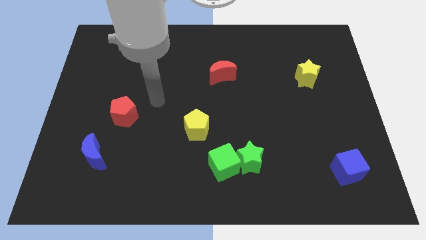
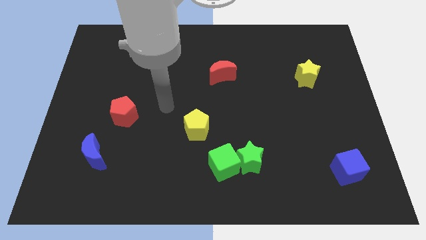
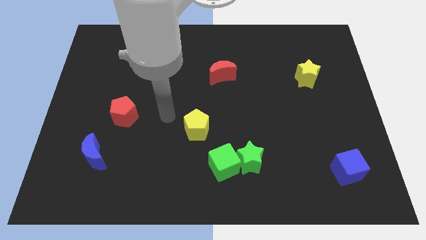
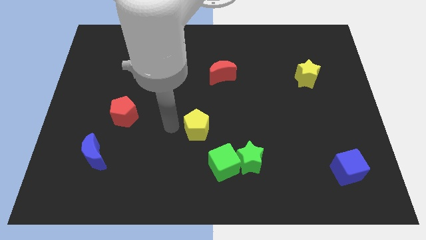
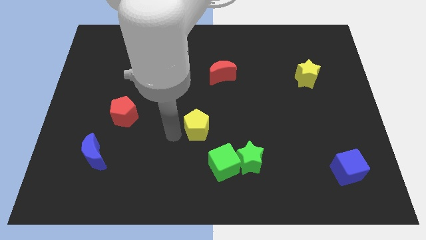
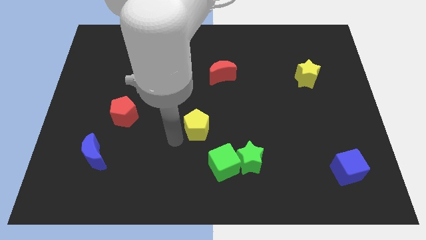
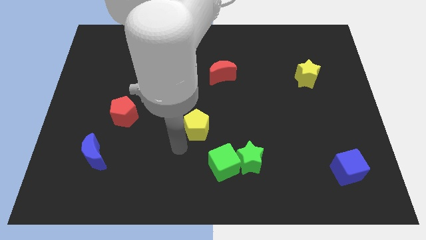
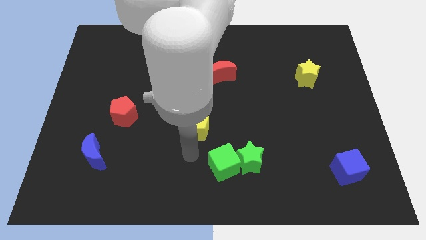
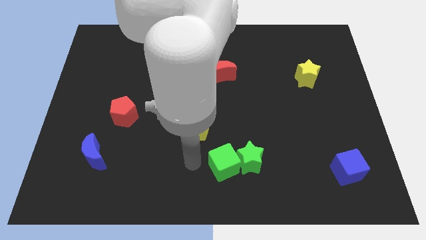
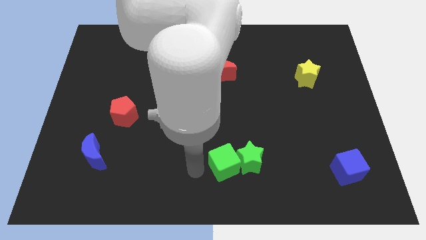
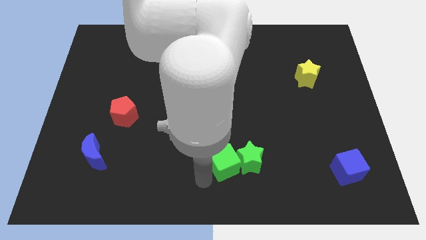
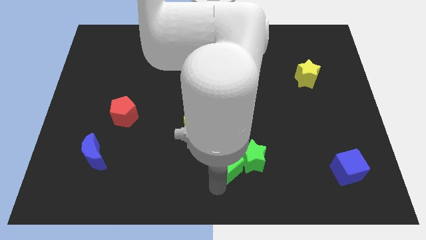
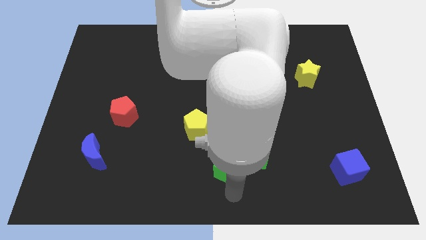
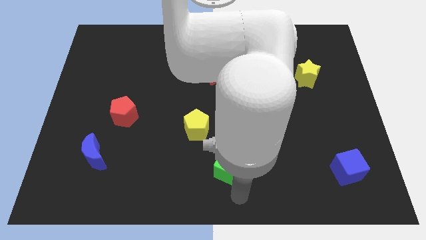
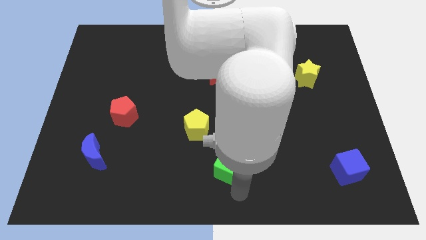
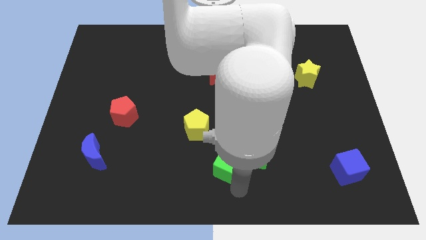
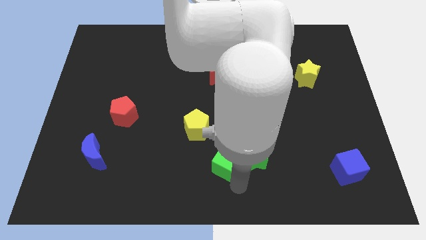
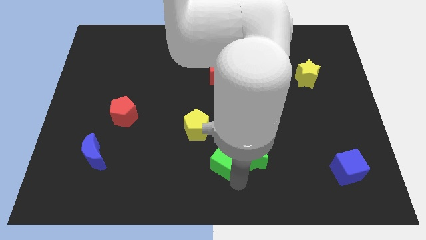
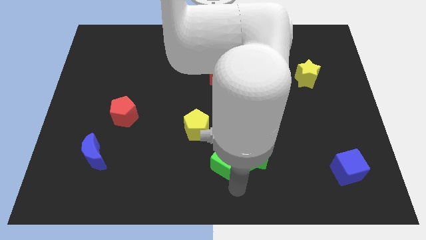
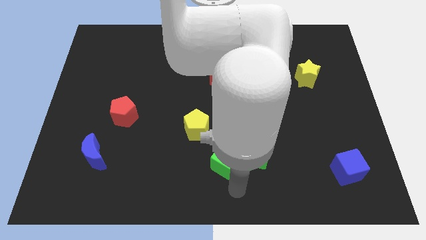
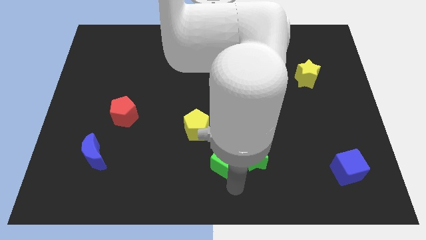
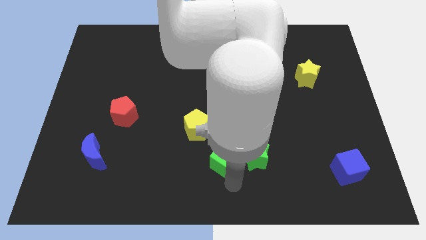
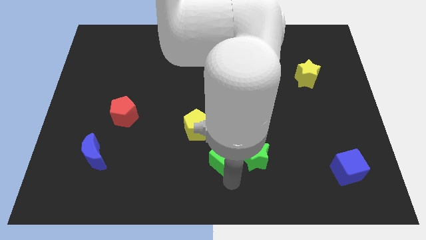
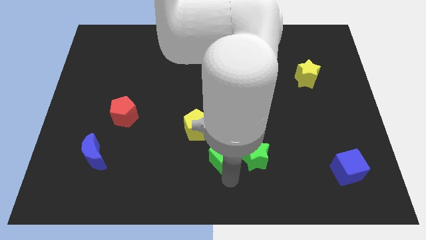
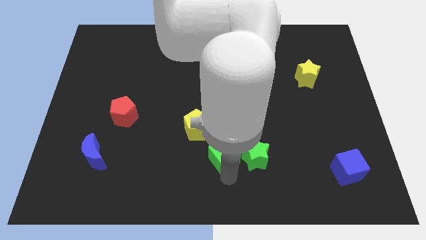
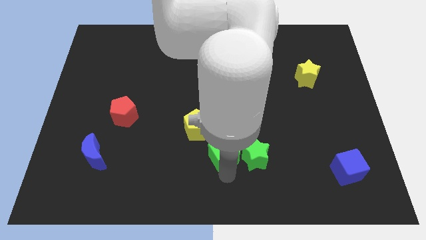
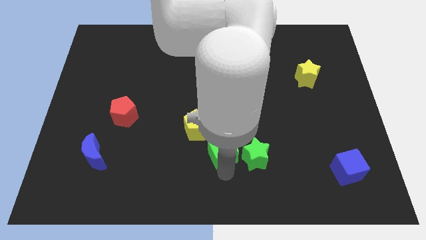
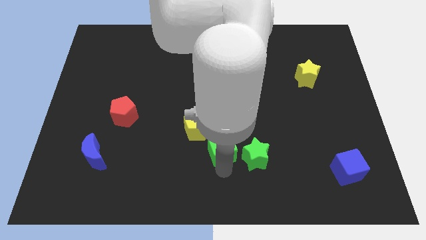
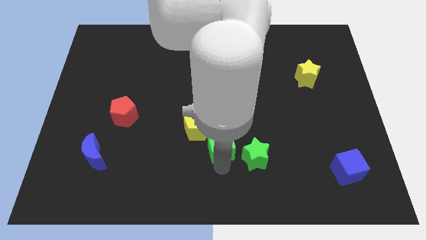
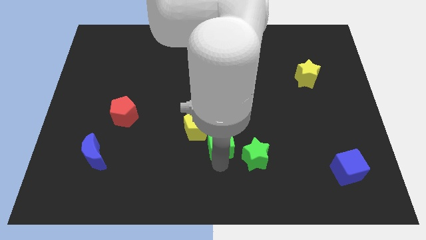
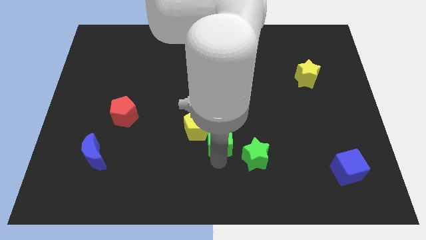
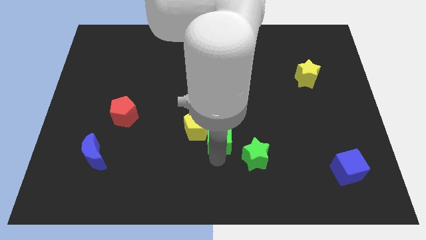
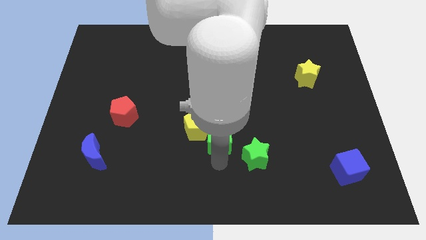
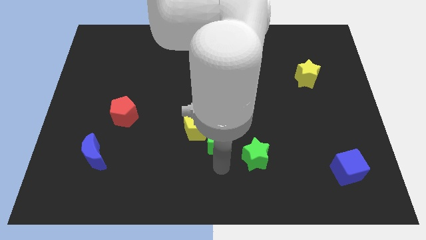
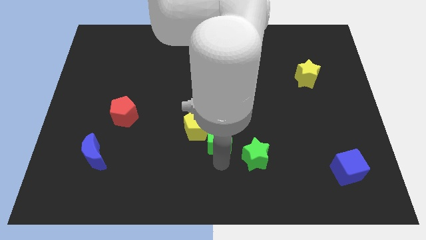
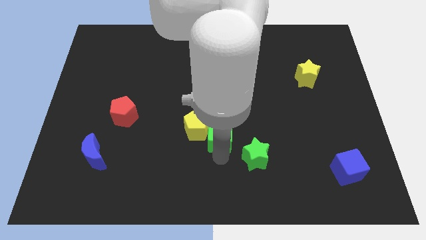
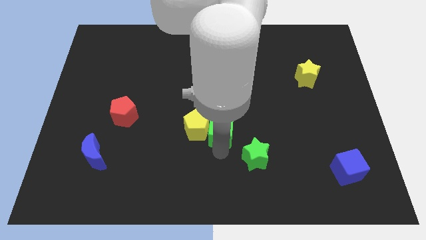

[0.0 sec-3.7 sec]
slide the green cube a little bit upwards

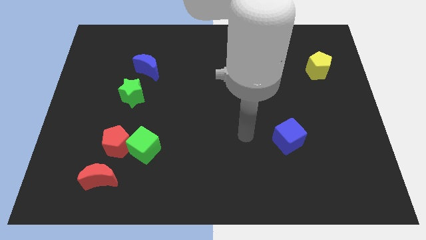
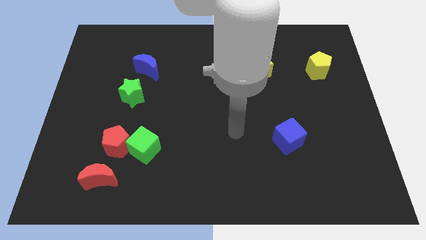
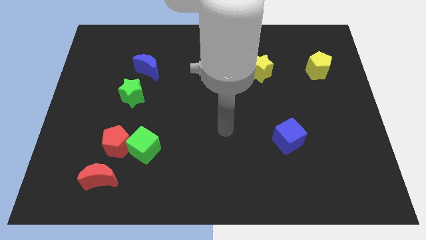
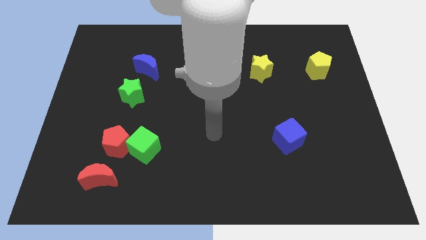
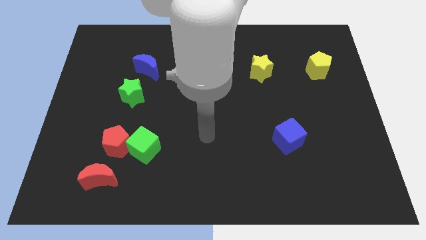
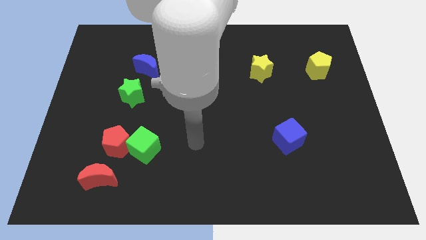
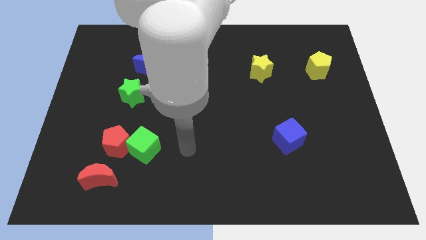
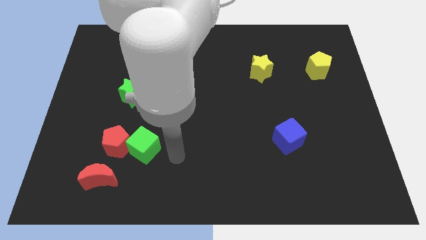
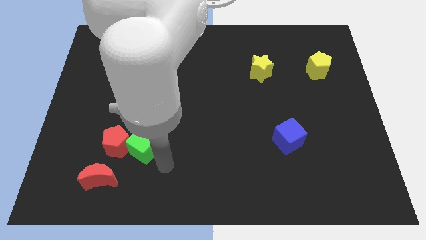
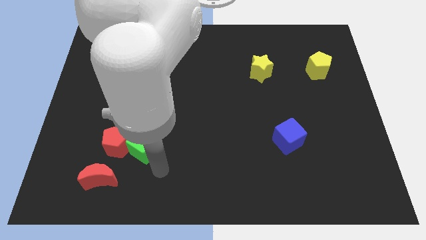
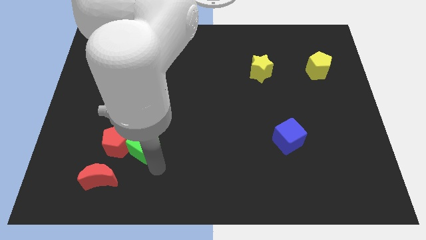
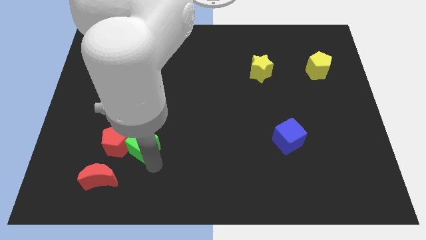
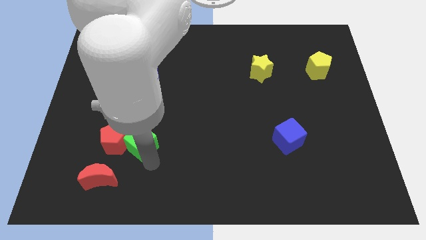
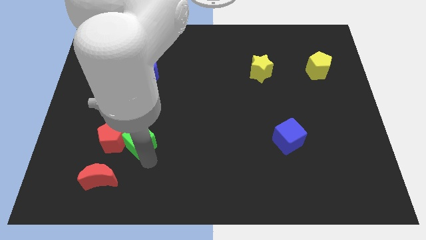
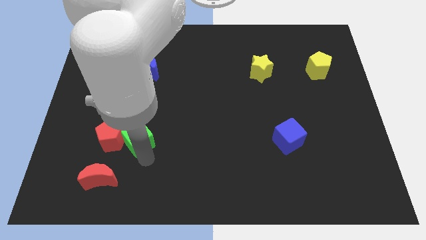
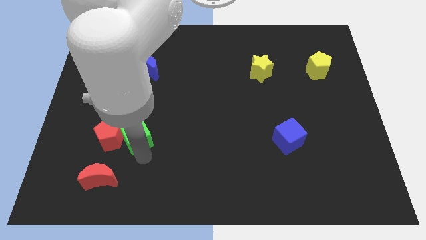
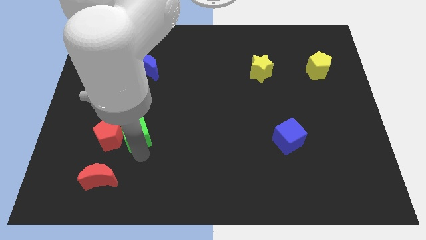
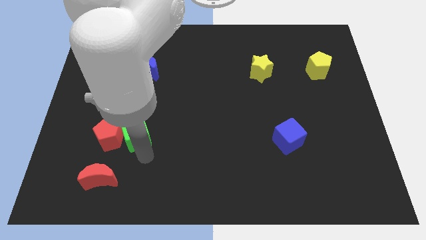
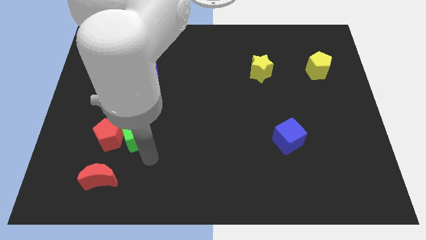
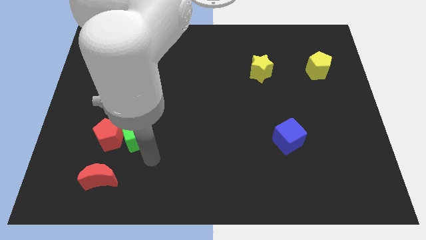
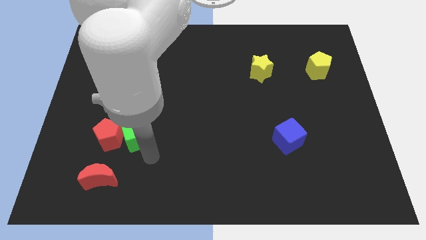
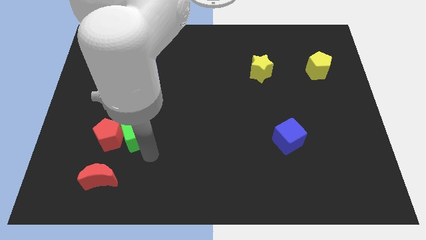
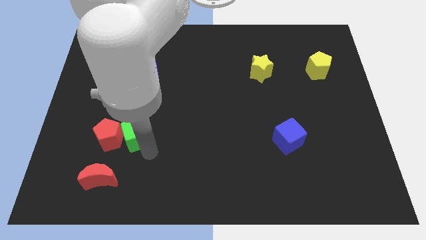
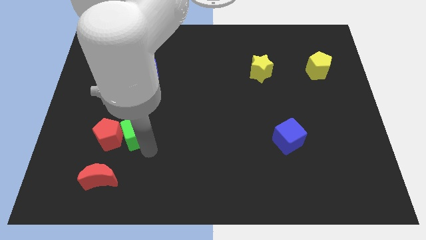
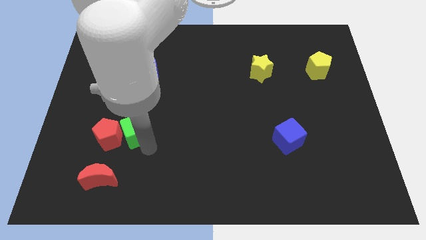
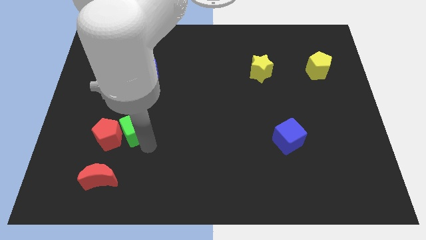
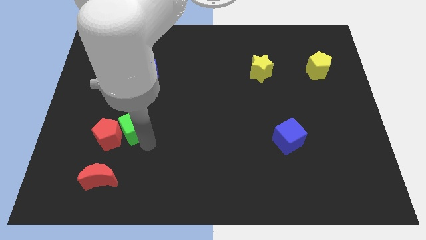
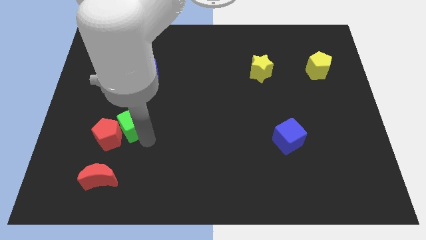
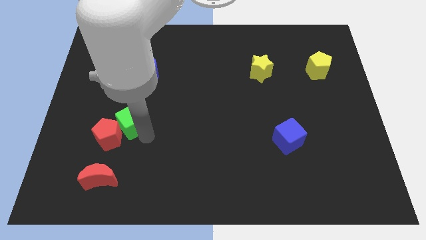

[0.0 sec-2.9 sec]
move the green cube upwards and left diagonally somewhat

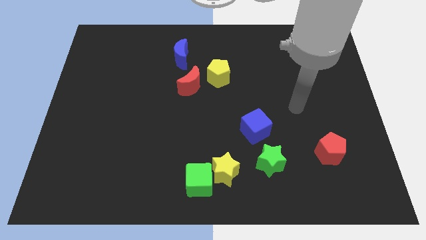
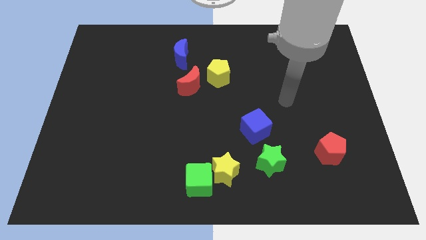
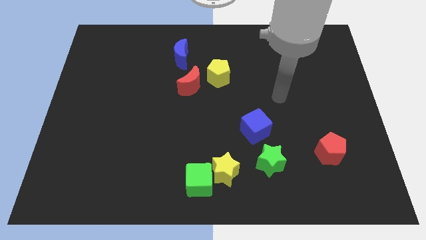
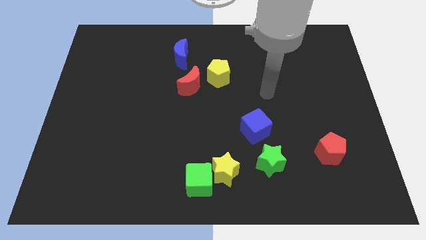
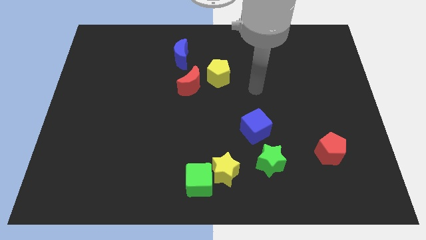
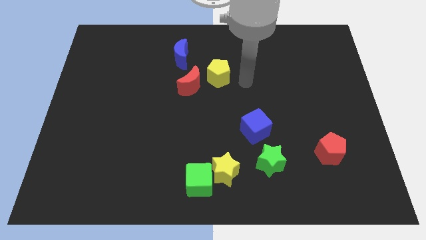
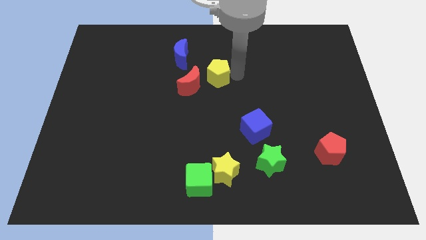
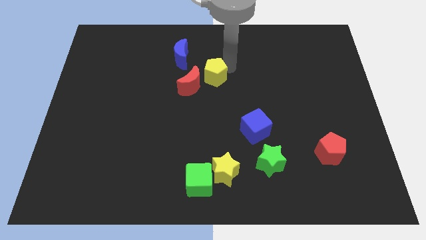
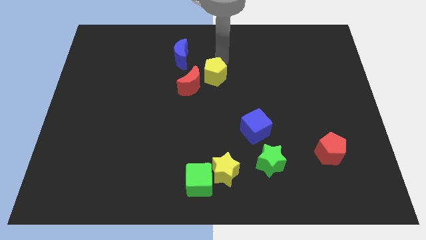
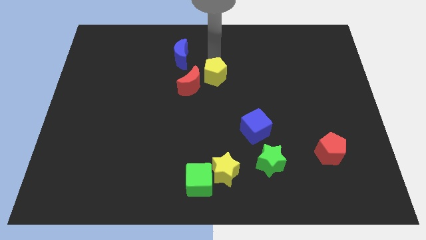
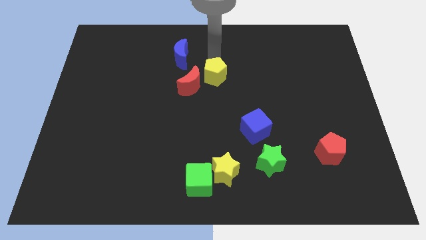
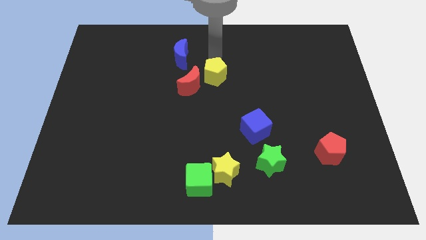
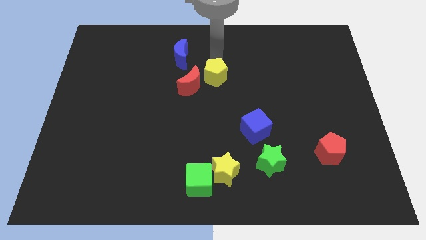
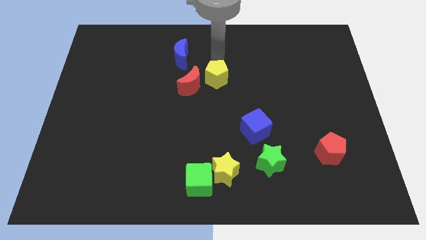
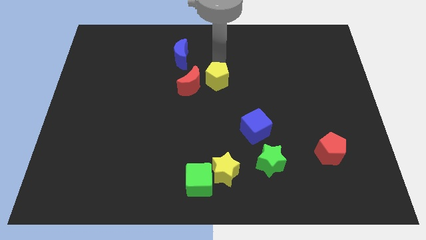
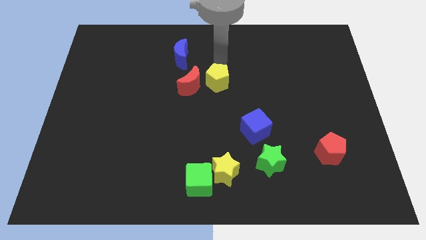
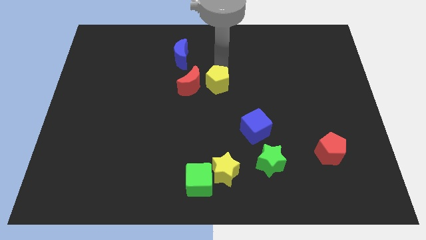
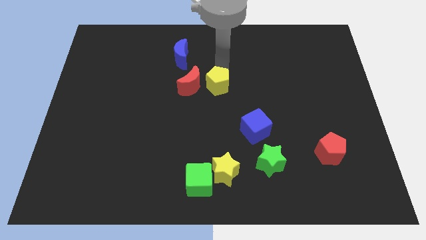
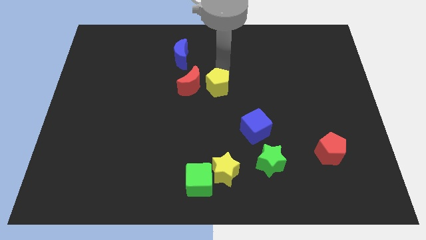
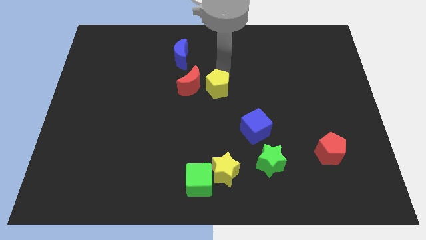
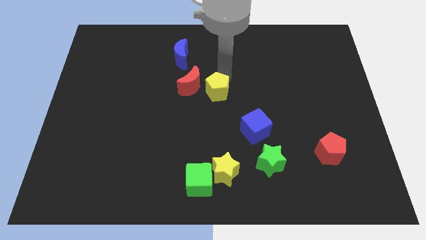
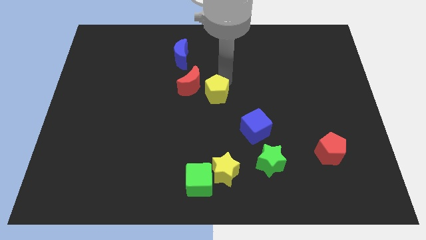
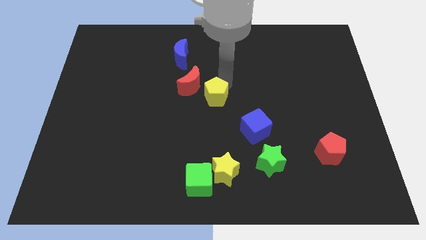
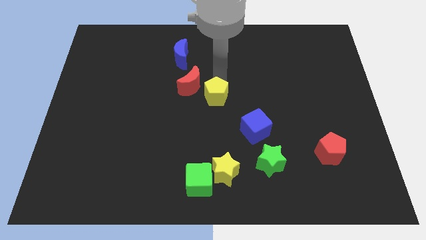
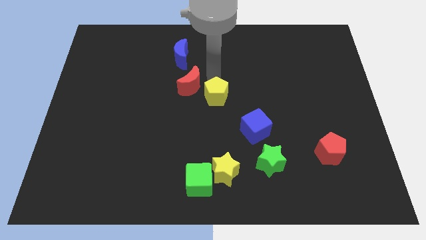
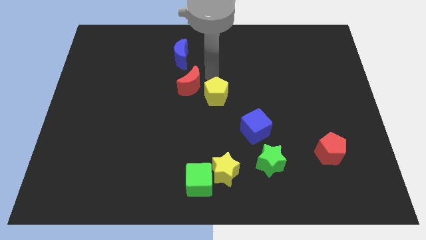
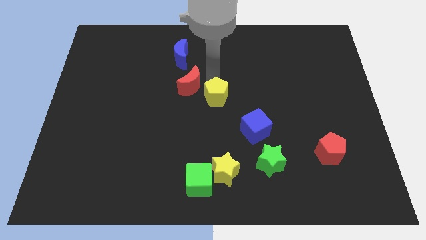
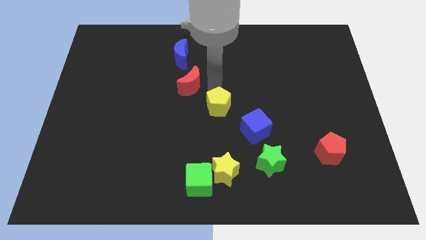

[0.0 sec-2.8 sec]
slide the yellow pentagon a little downwards
